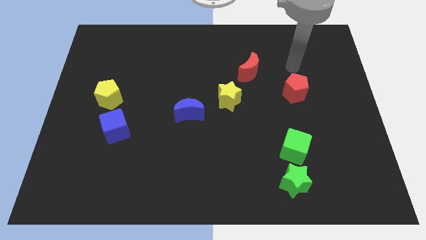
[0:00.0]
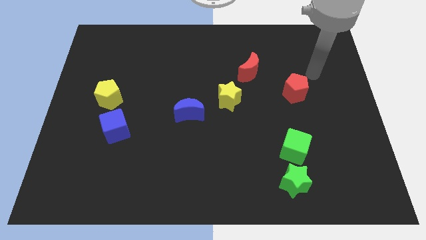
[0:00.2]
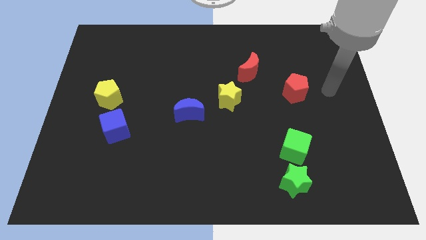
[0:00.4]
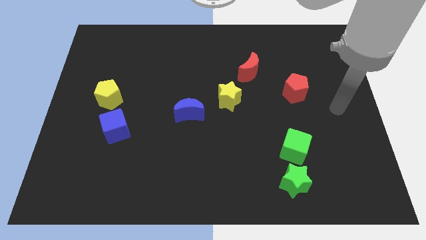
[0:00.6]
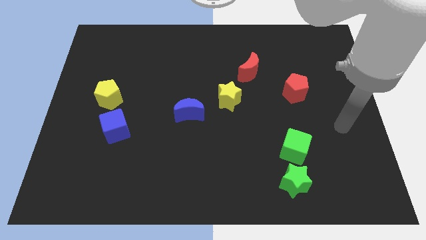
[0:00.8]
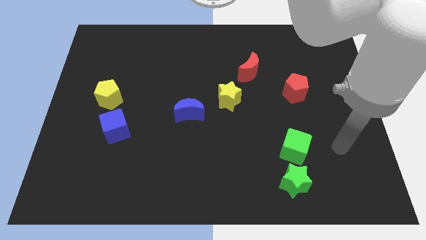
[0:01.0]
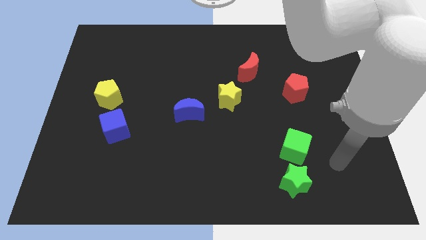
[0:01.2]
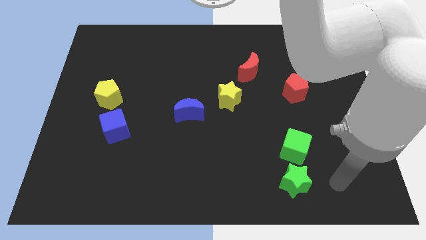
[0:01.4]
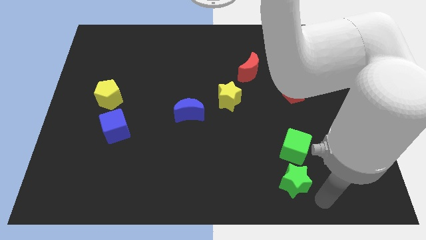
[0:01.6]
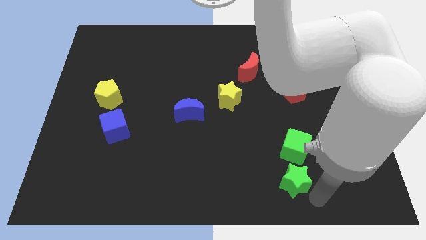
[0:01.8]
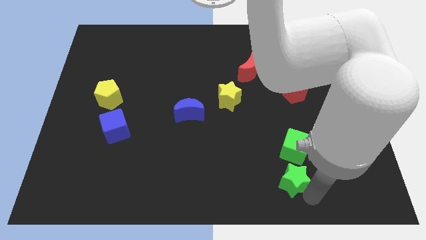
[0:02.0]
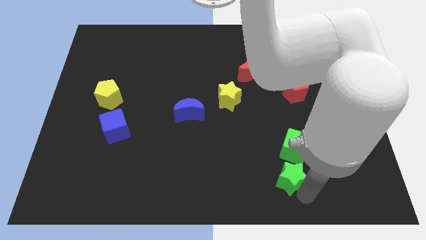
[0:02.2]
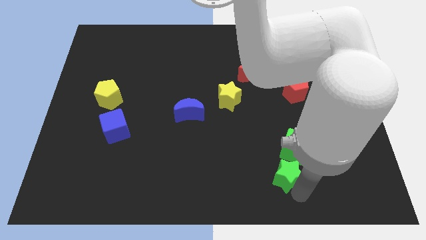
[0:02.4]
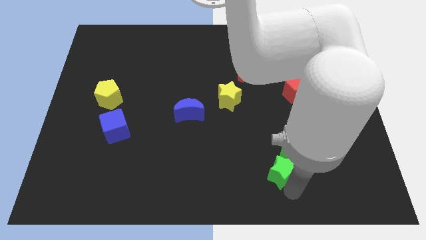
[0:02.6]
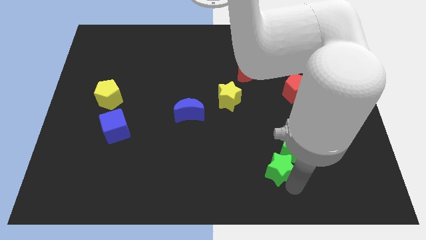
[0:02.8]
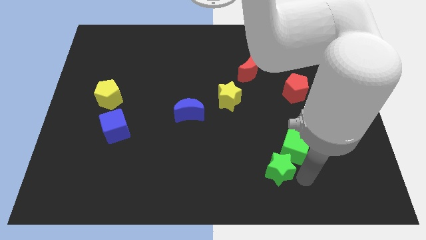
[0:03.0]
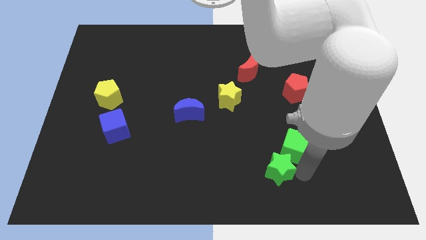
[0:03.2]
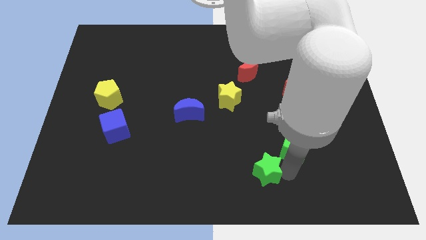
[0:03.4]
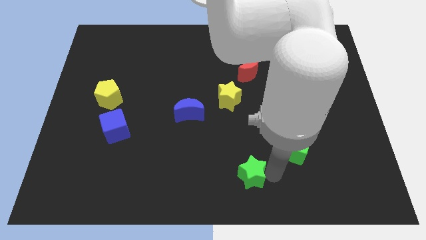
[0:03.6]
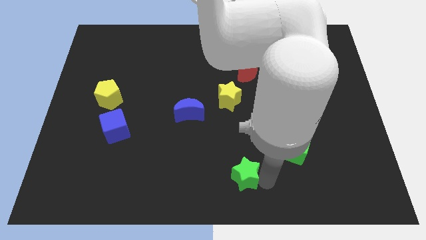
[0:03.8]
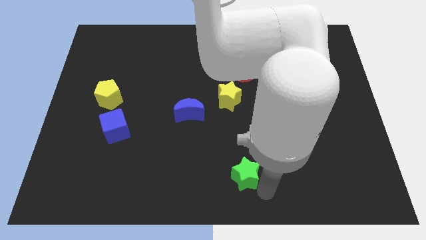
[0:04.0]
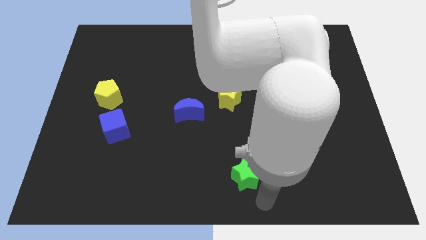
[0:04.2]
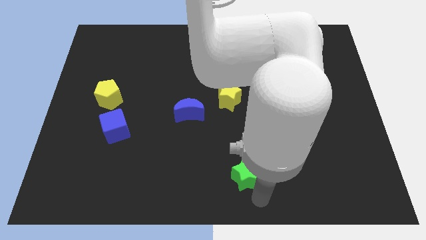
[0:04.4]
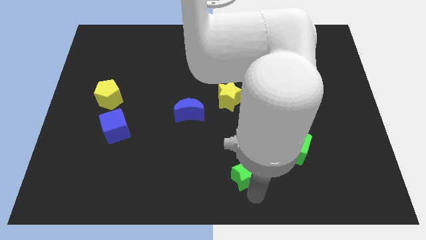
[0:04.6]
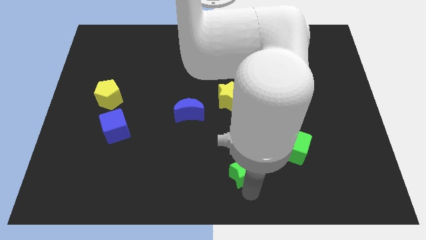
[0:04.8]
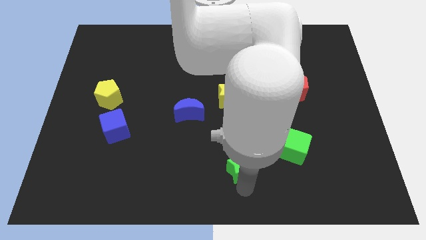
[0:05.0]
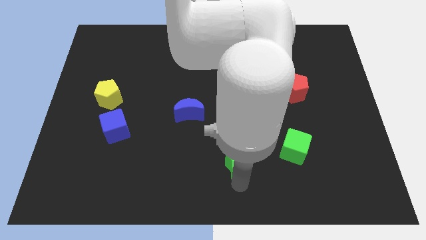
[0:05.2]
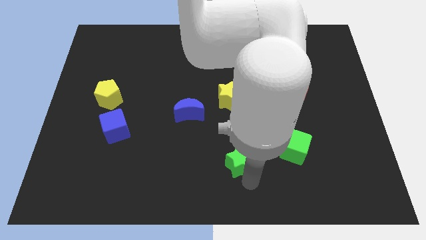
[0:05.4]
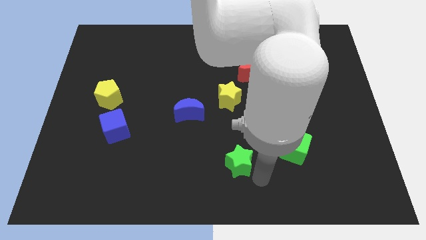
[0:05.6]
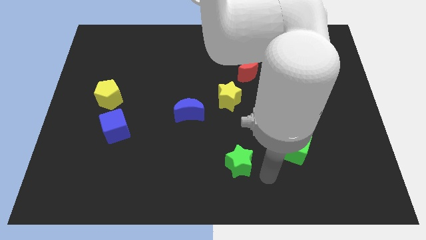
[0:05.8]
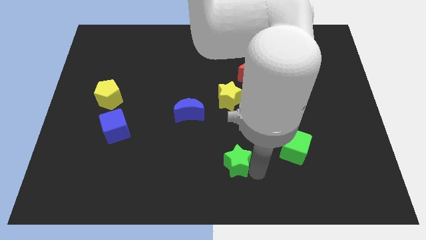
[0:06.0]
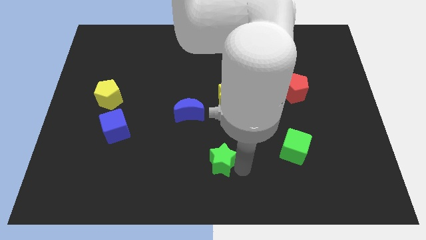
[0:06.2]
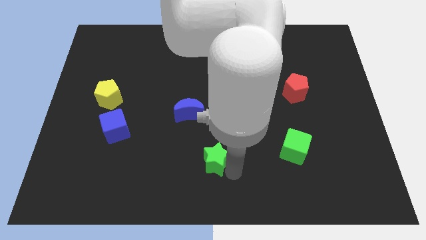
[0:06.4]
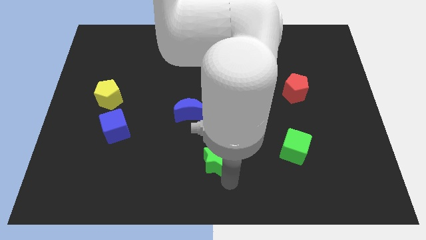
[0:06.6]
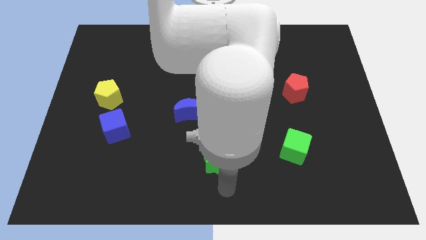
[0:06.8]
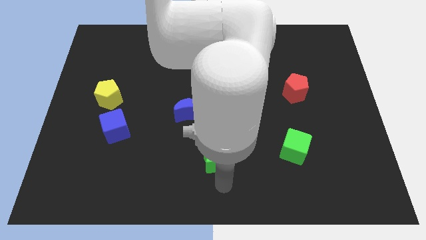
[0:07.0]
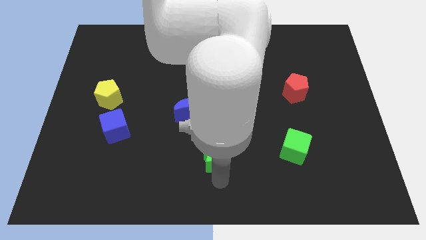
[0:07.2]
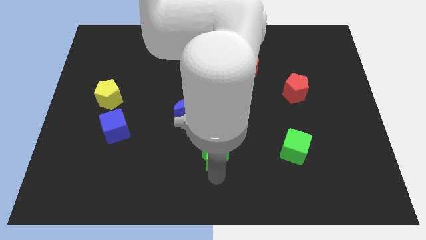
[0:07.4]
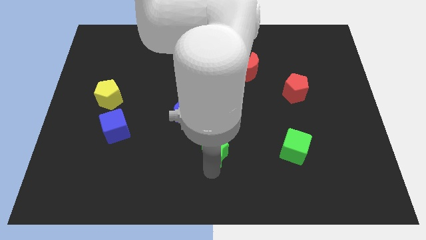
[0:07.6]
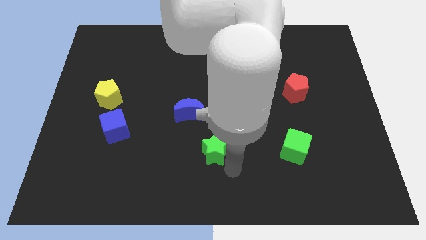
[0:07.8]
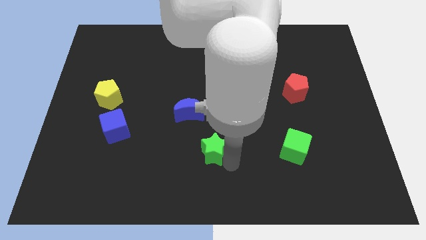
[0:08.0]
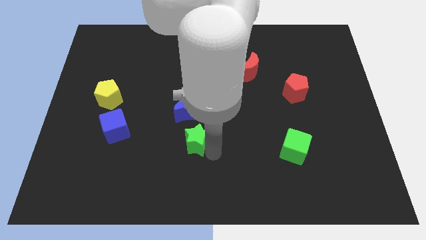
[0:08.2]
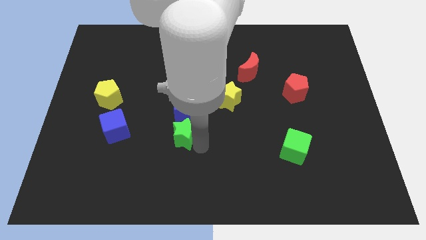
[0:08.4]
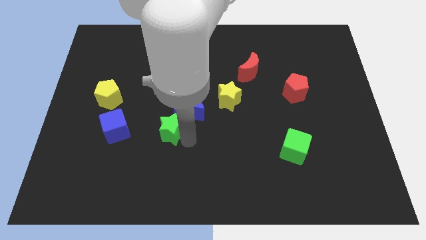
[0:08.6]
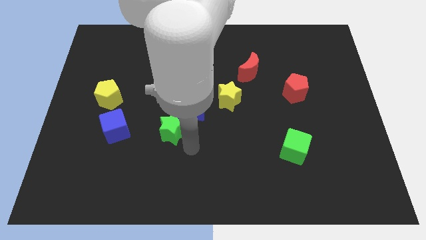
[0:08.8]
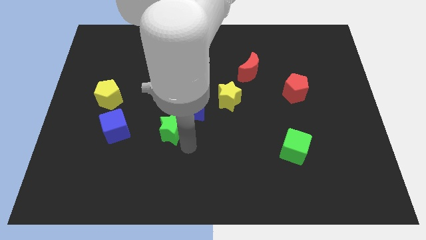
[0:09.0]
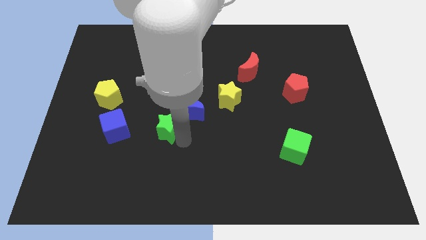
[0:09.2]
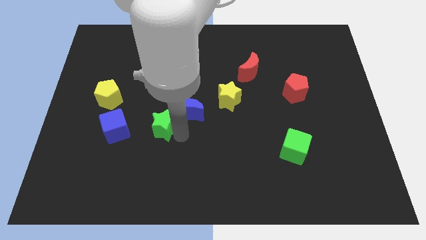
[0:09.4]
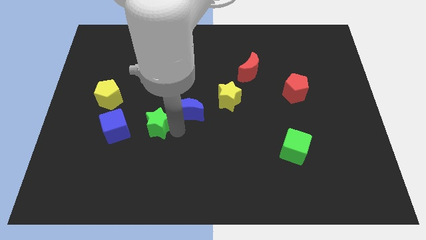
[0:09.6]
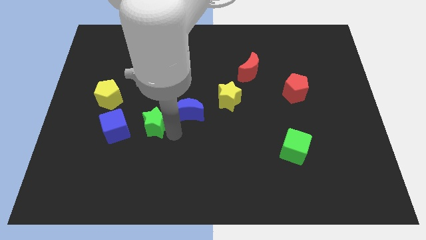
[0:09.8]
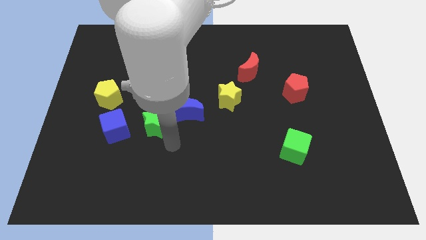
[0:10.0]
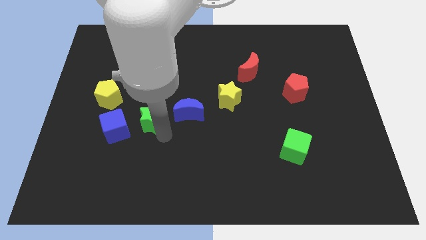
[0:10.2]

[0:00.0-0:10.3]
move the green star to the top right of the blue cube
